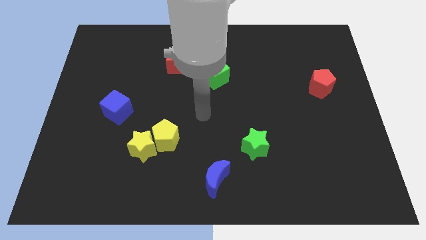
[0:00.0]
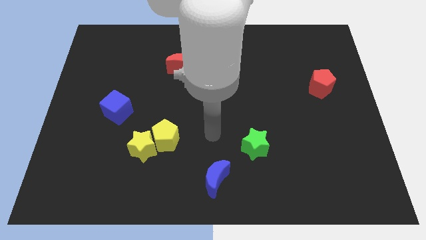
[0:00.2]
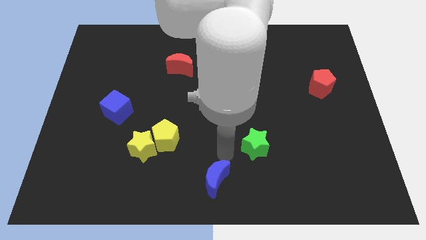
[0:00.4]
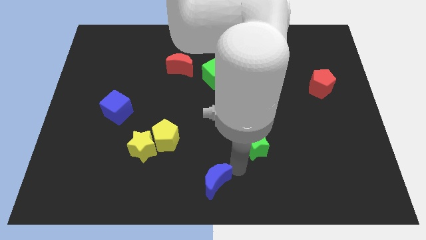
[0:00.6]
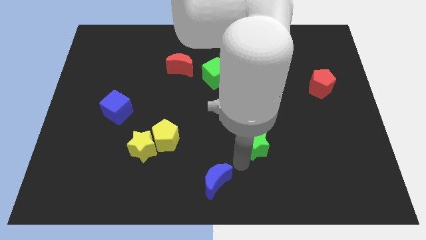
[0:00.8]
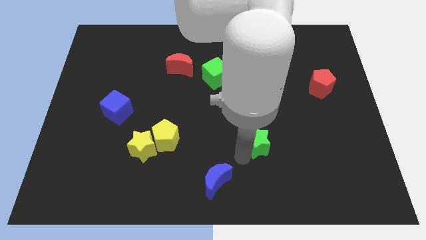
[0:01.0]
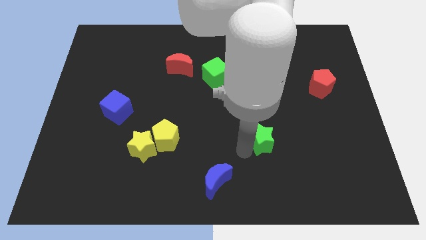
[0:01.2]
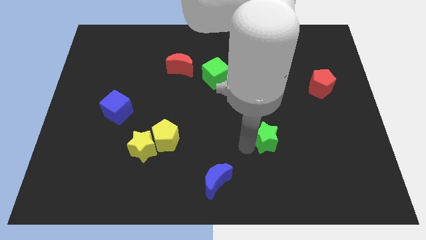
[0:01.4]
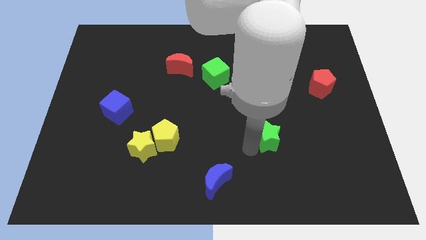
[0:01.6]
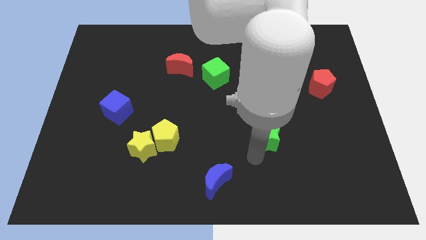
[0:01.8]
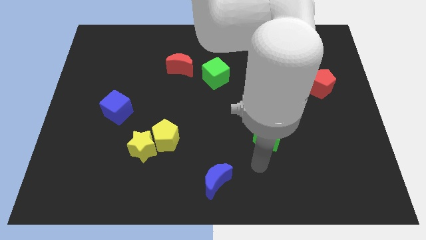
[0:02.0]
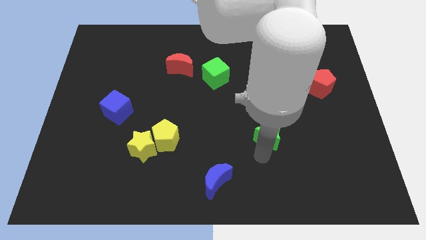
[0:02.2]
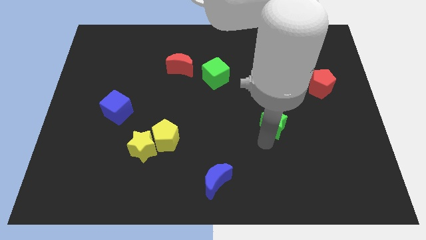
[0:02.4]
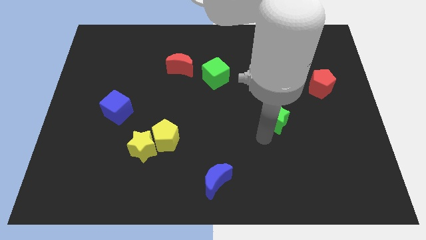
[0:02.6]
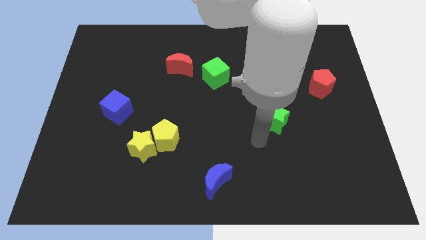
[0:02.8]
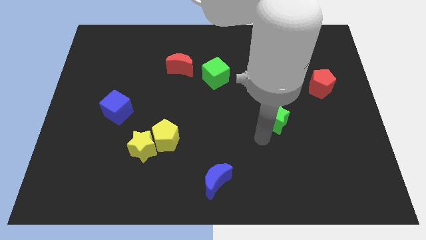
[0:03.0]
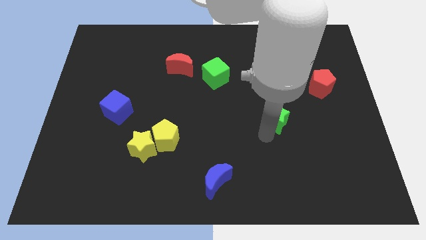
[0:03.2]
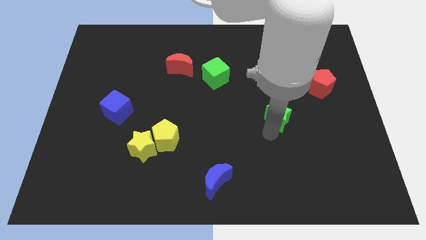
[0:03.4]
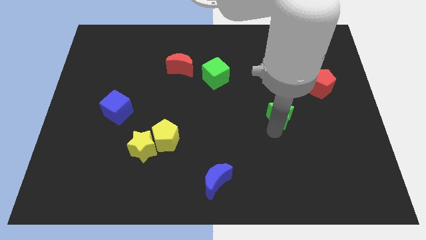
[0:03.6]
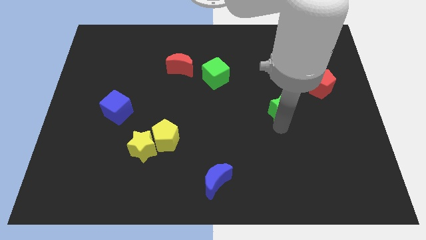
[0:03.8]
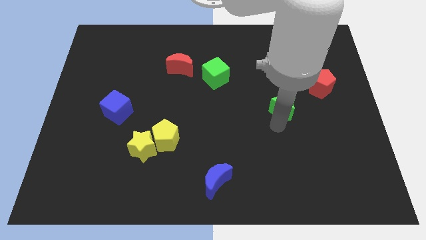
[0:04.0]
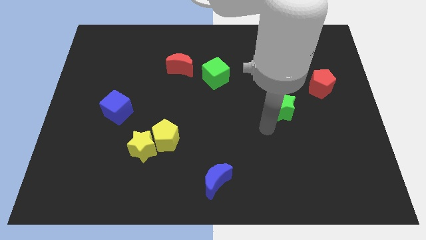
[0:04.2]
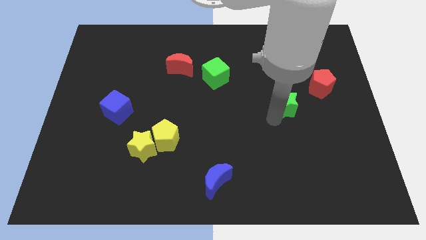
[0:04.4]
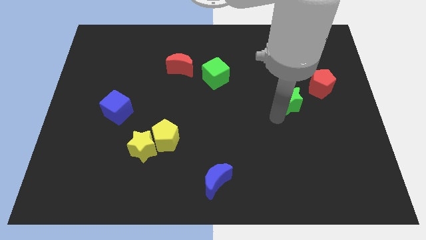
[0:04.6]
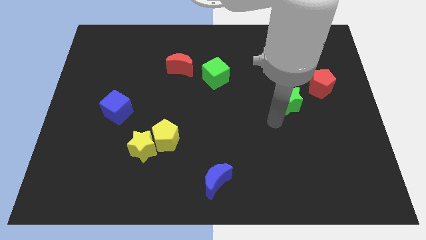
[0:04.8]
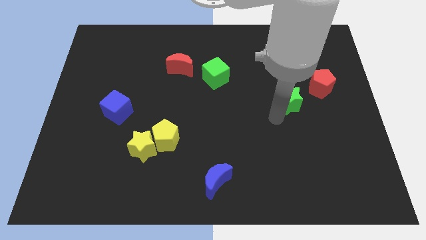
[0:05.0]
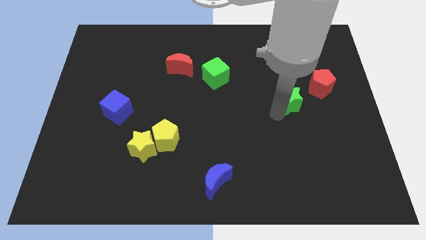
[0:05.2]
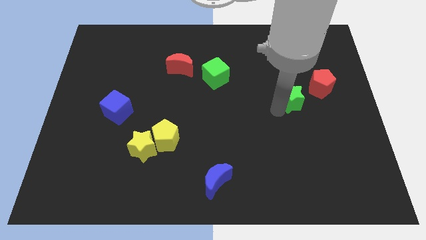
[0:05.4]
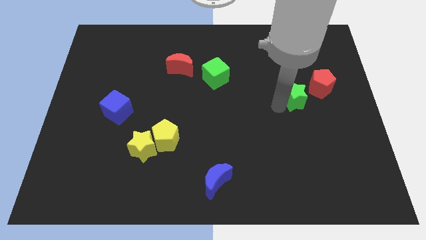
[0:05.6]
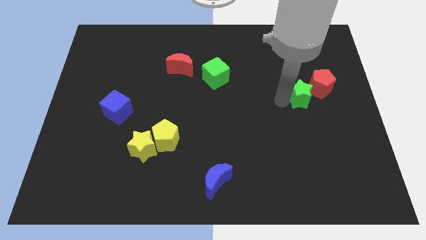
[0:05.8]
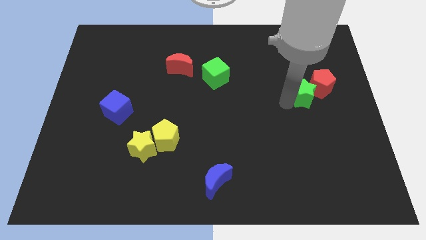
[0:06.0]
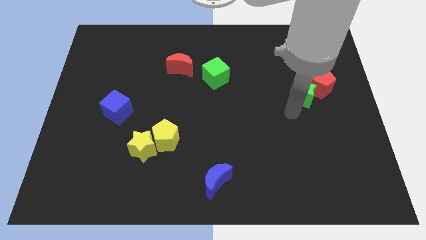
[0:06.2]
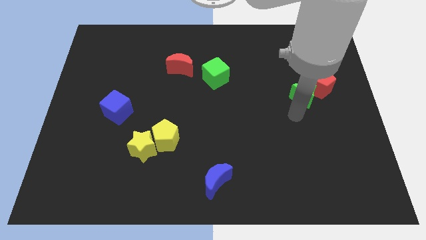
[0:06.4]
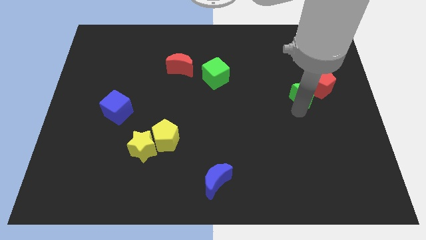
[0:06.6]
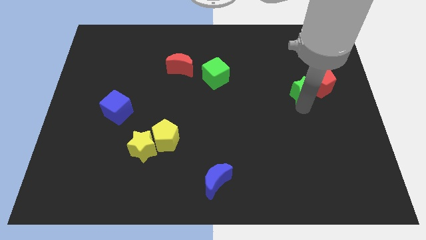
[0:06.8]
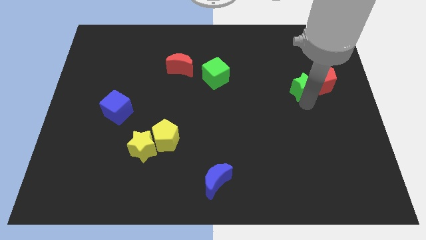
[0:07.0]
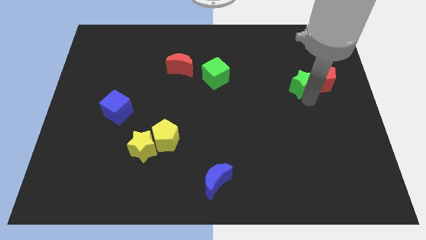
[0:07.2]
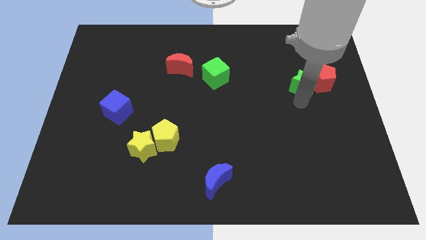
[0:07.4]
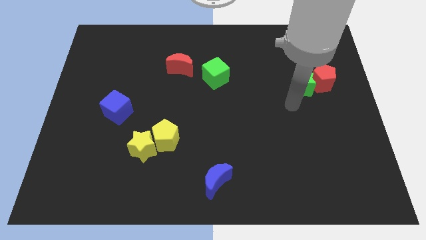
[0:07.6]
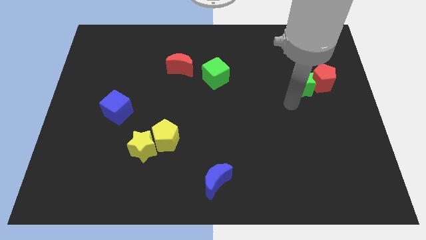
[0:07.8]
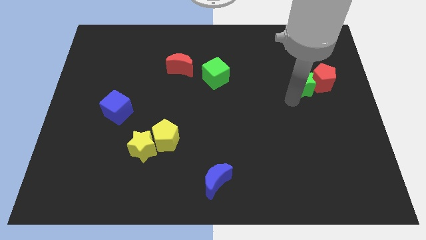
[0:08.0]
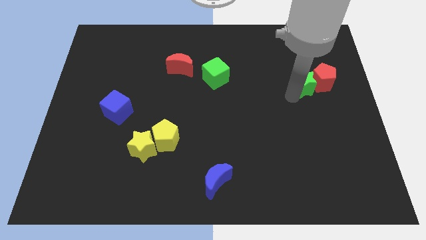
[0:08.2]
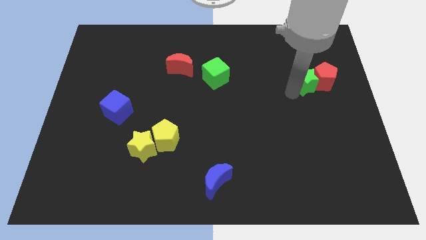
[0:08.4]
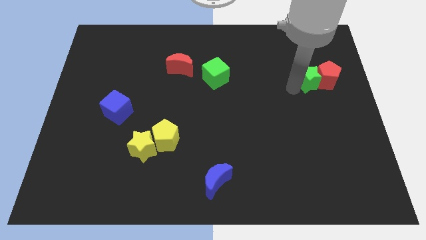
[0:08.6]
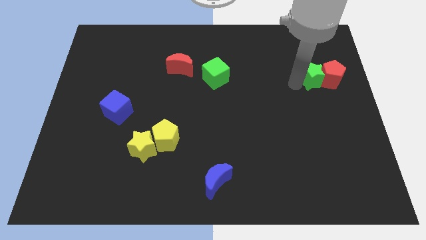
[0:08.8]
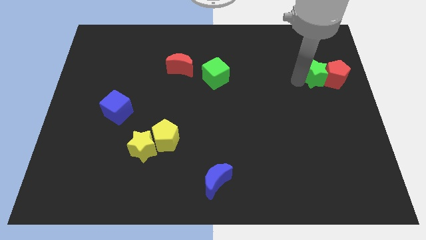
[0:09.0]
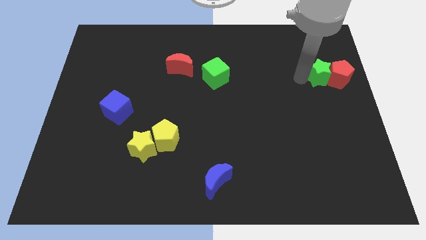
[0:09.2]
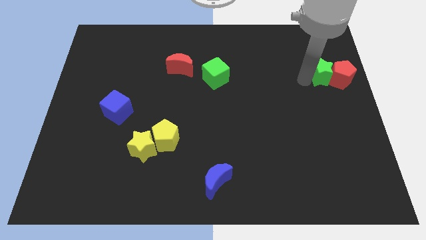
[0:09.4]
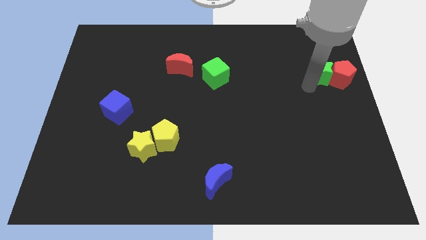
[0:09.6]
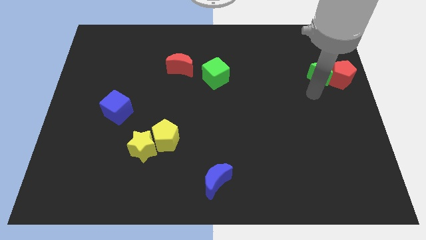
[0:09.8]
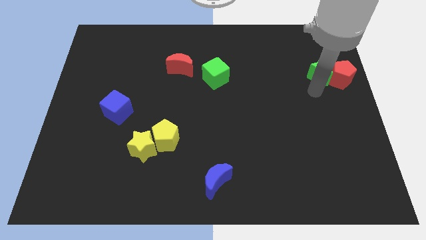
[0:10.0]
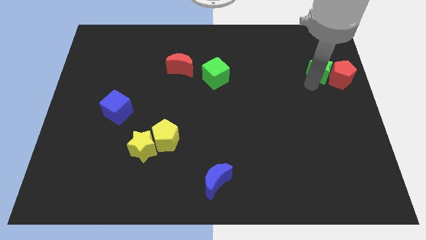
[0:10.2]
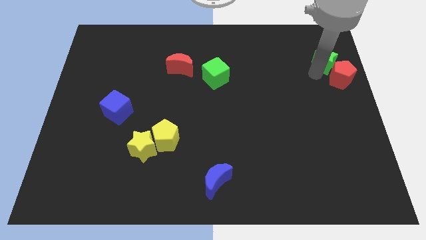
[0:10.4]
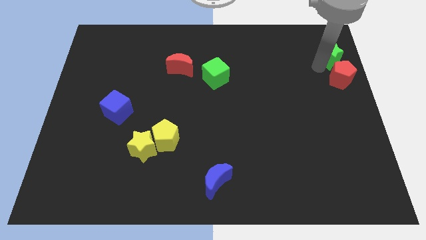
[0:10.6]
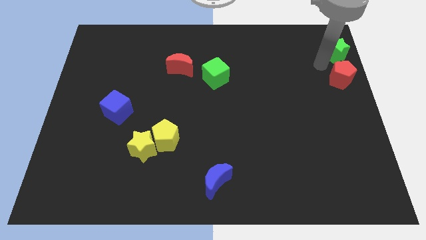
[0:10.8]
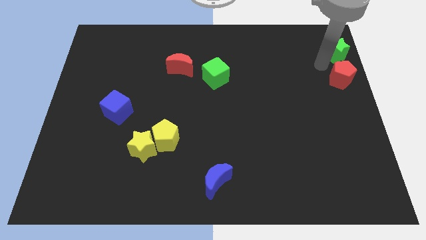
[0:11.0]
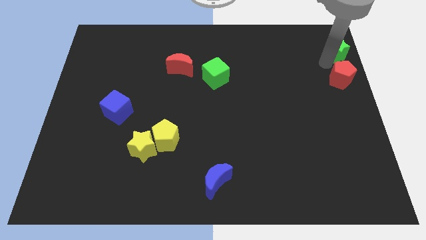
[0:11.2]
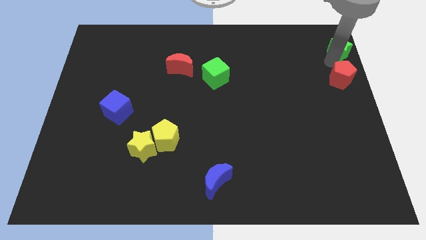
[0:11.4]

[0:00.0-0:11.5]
move the green star to the top right of the board

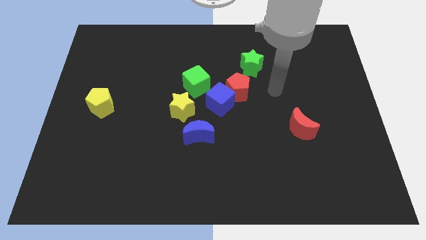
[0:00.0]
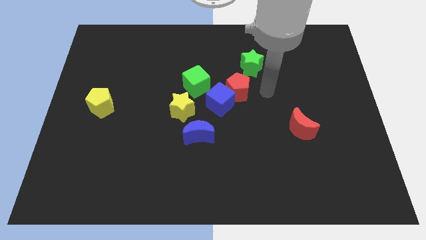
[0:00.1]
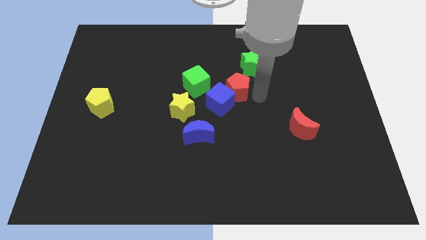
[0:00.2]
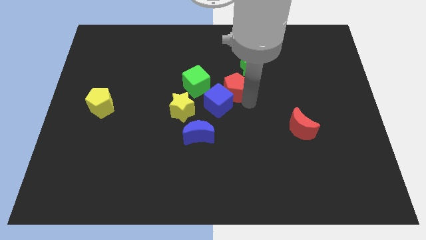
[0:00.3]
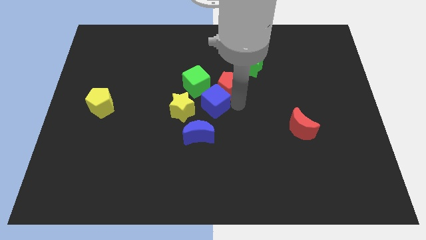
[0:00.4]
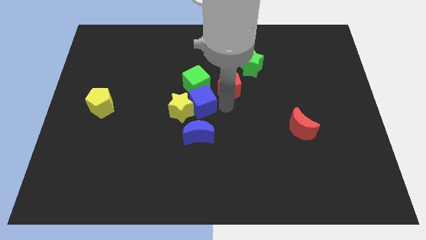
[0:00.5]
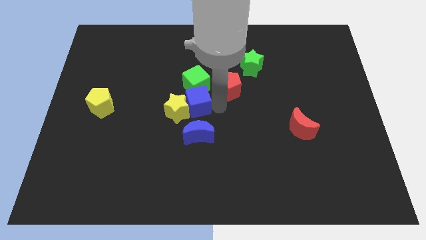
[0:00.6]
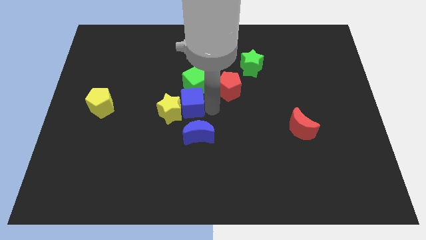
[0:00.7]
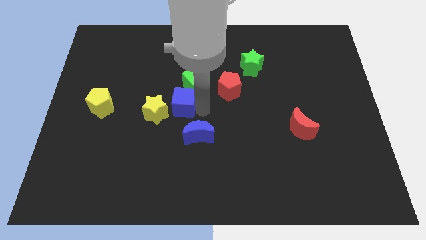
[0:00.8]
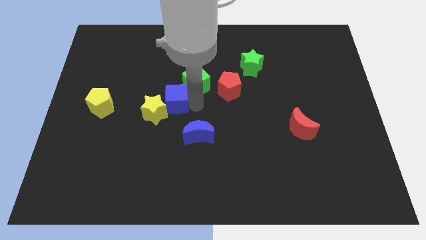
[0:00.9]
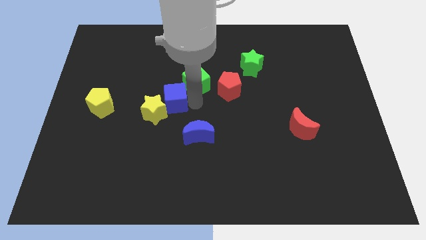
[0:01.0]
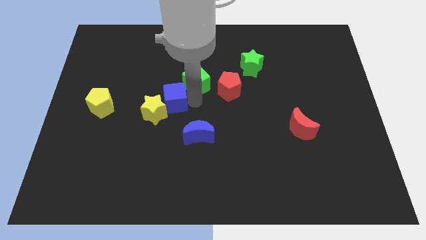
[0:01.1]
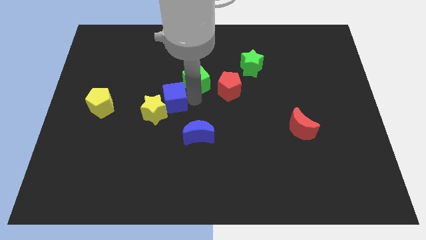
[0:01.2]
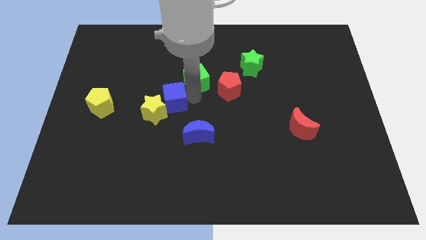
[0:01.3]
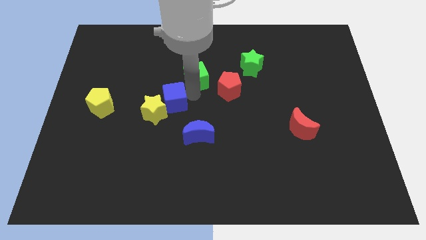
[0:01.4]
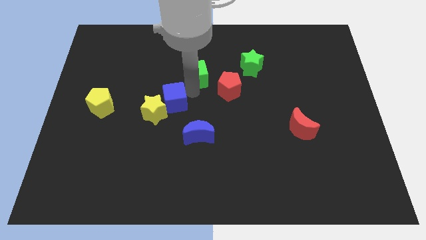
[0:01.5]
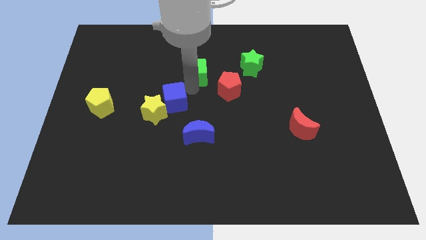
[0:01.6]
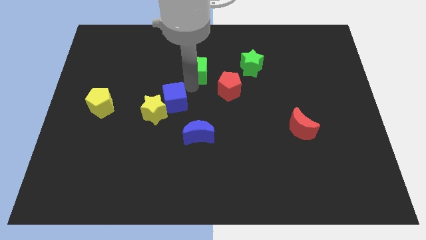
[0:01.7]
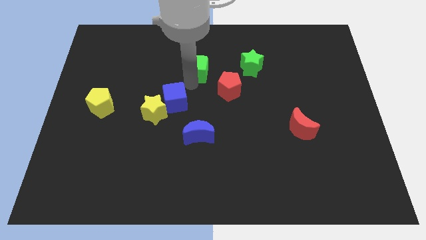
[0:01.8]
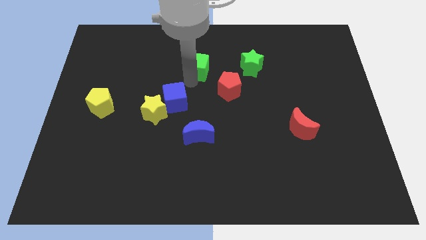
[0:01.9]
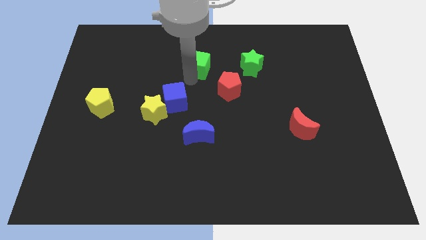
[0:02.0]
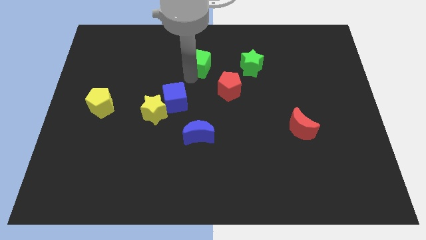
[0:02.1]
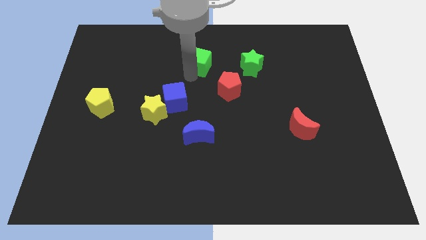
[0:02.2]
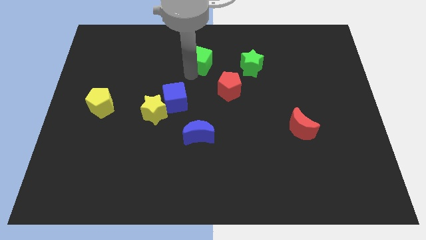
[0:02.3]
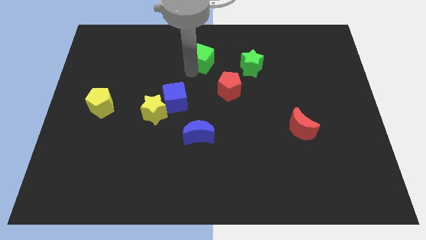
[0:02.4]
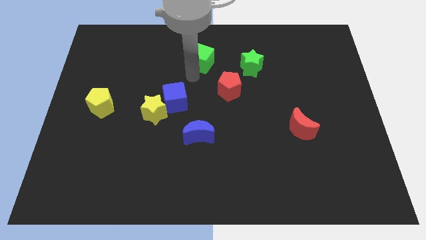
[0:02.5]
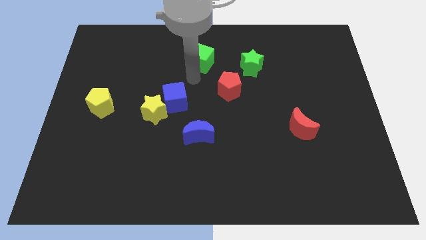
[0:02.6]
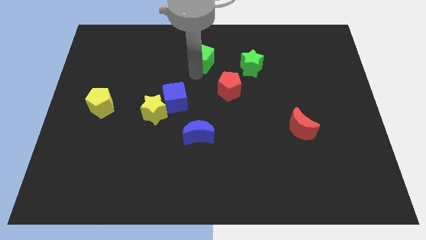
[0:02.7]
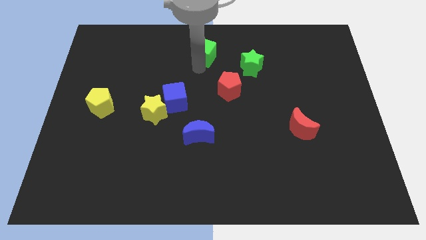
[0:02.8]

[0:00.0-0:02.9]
push the green cube to the top
